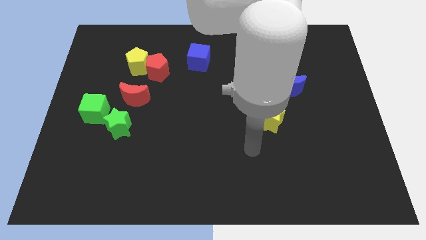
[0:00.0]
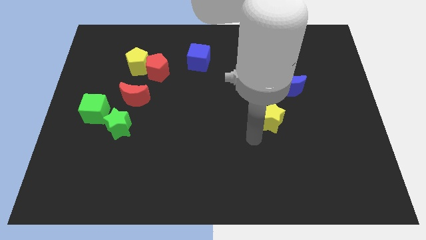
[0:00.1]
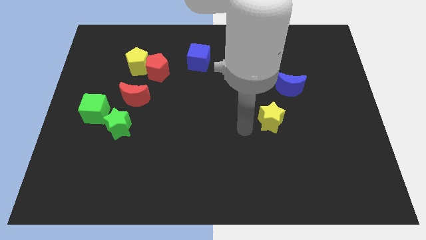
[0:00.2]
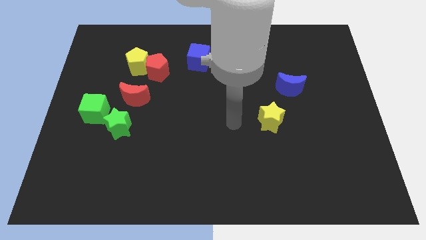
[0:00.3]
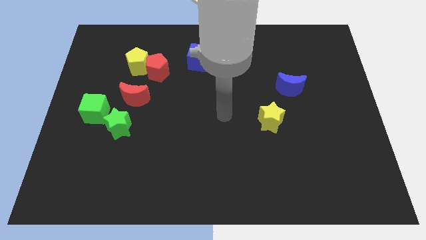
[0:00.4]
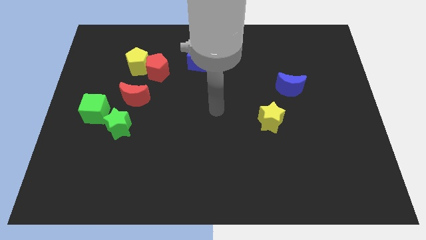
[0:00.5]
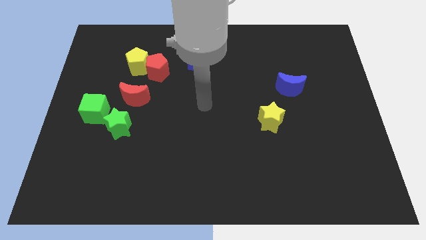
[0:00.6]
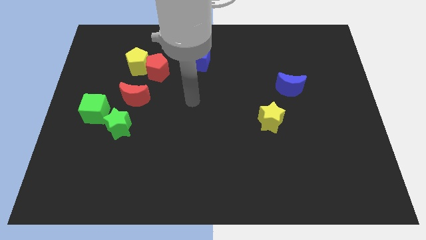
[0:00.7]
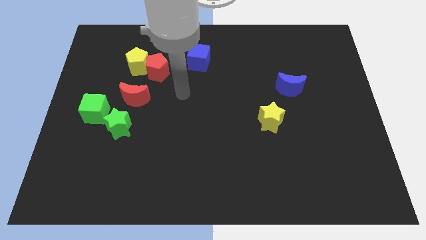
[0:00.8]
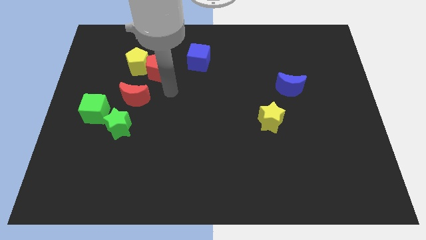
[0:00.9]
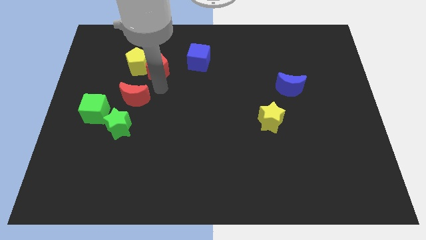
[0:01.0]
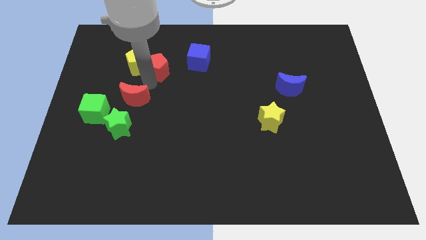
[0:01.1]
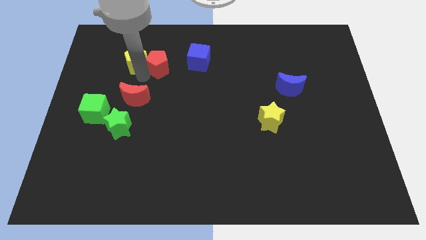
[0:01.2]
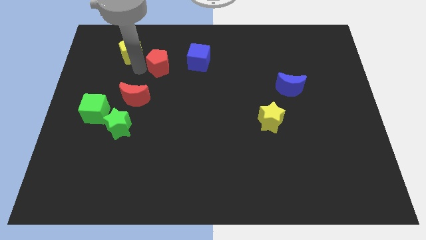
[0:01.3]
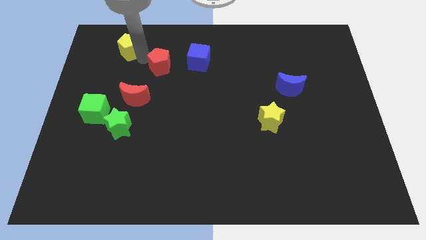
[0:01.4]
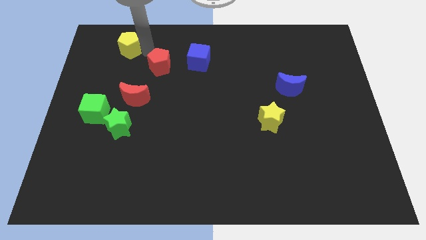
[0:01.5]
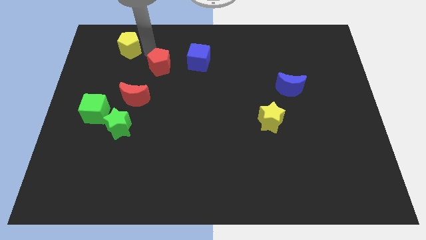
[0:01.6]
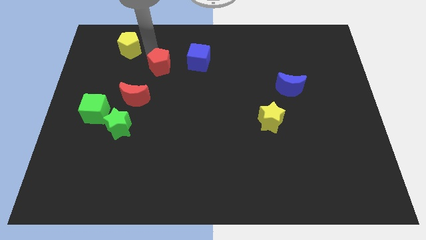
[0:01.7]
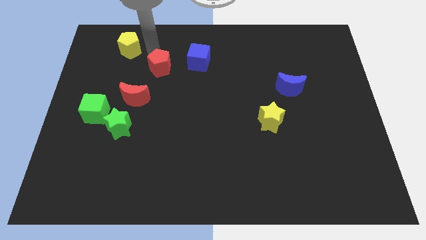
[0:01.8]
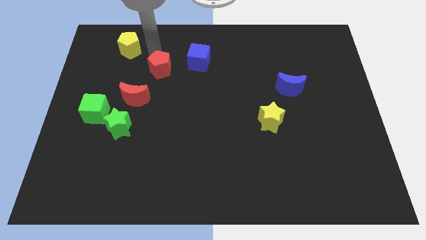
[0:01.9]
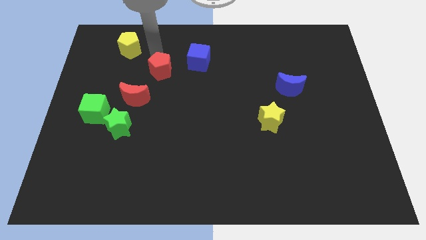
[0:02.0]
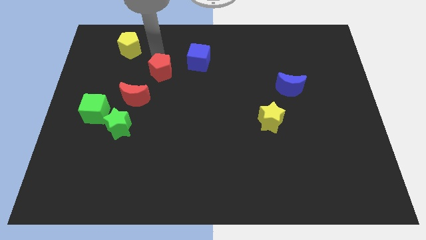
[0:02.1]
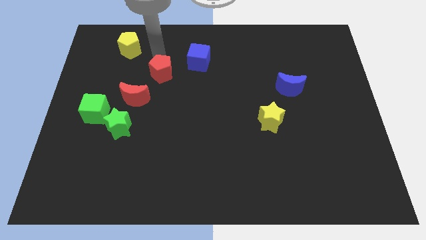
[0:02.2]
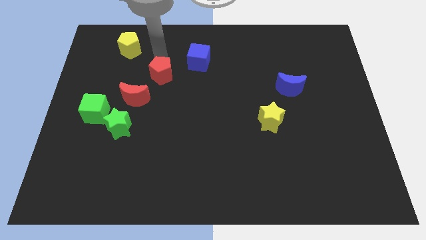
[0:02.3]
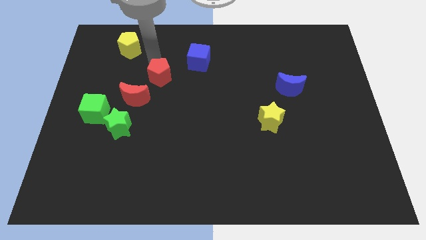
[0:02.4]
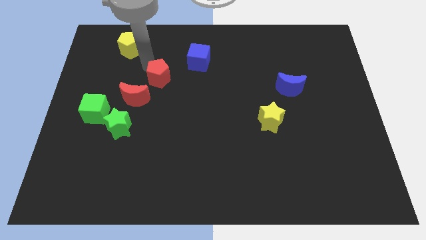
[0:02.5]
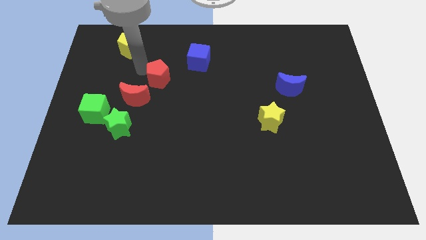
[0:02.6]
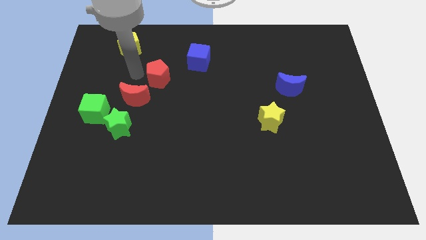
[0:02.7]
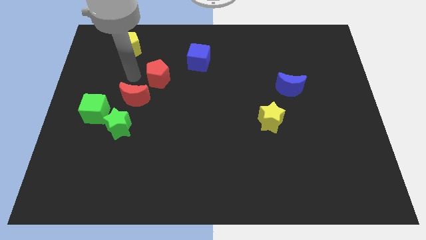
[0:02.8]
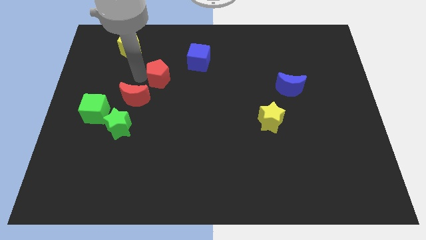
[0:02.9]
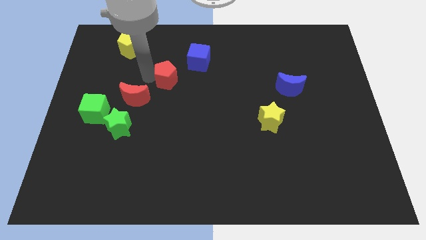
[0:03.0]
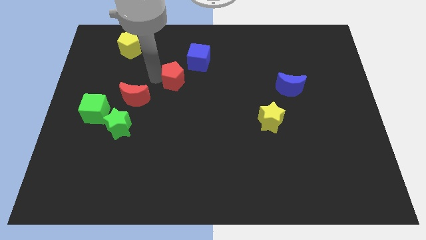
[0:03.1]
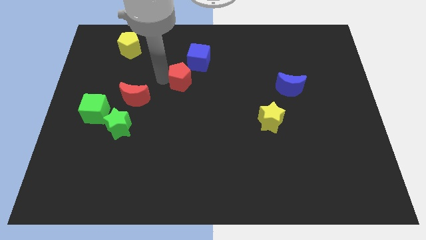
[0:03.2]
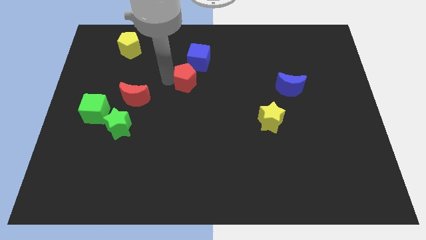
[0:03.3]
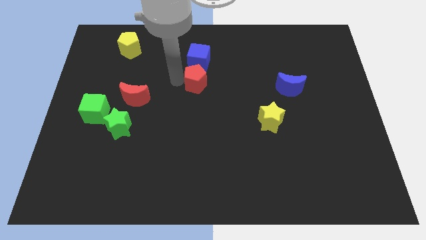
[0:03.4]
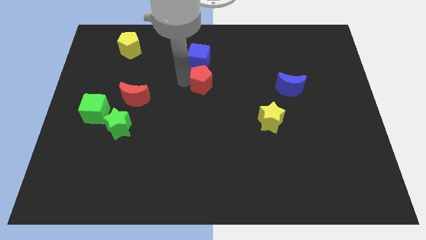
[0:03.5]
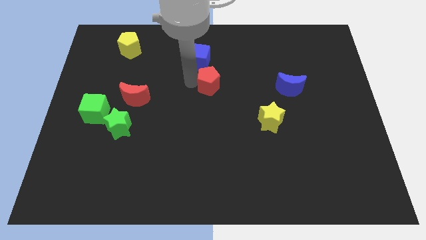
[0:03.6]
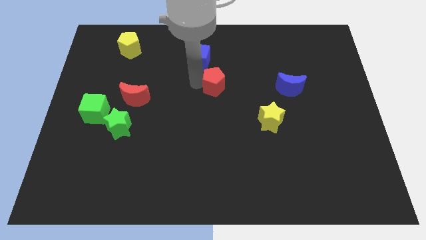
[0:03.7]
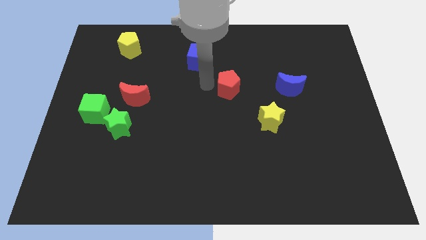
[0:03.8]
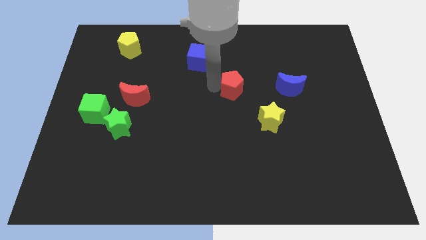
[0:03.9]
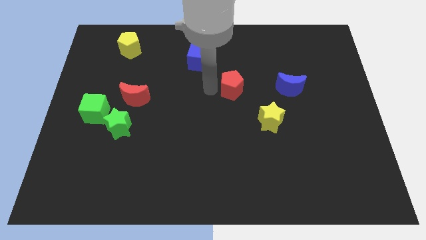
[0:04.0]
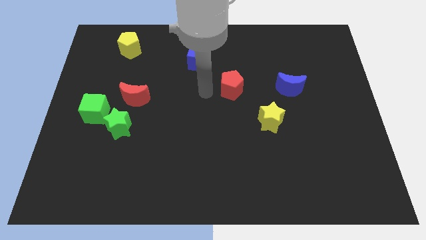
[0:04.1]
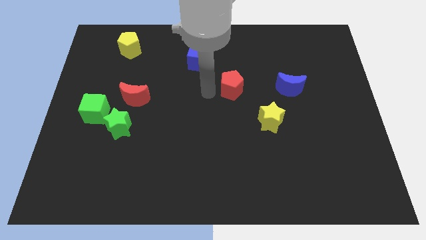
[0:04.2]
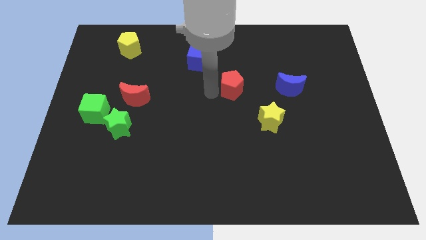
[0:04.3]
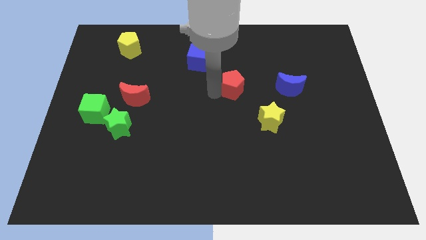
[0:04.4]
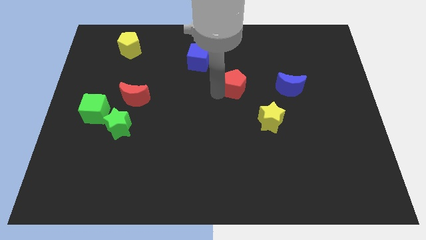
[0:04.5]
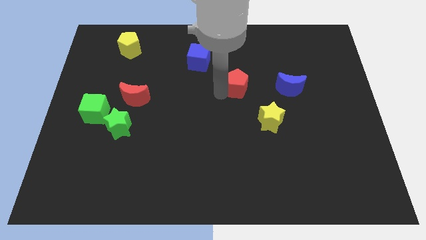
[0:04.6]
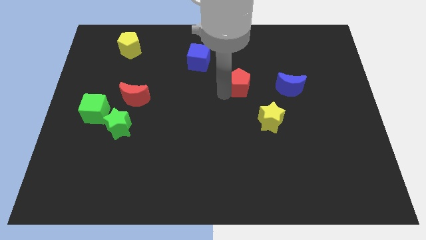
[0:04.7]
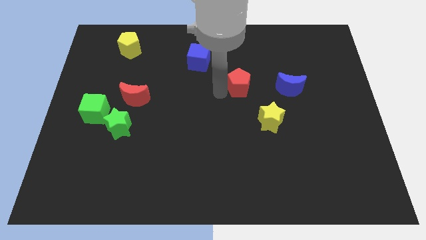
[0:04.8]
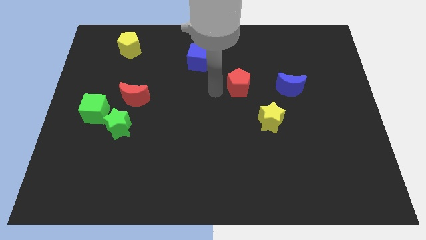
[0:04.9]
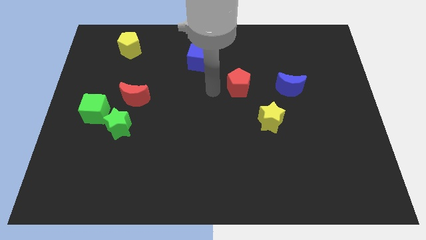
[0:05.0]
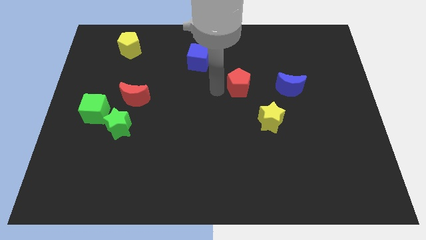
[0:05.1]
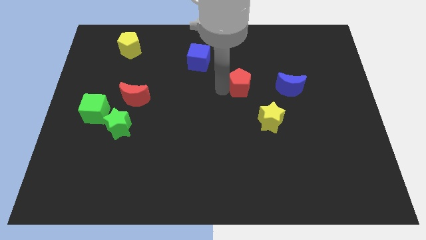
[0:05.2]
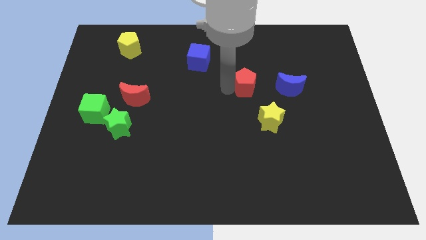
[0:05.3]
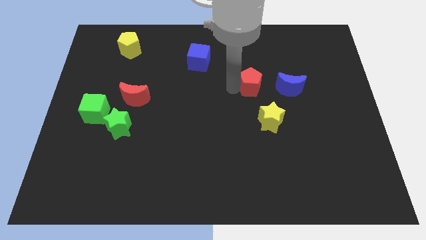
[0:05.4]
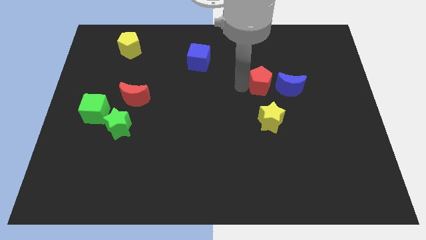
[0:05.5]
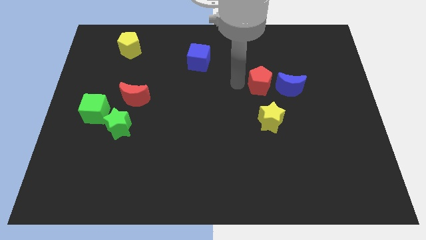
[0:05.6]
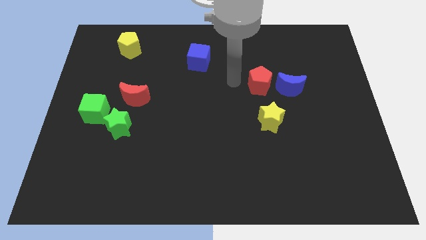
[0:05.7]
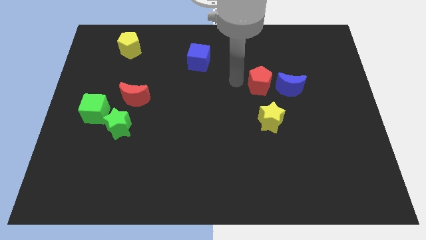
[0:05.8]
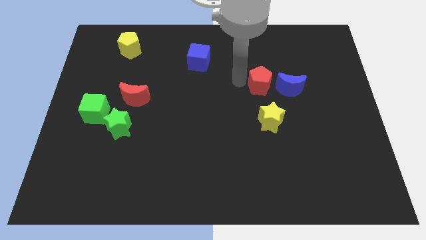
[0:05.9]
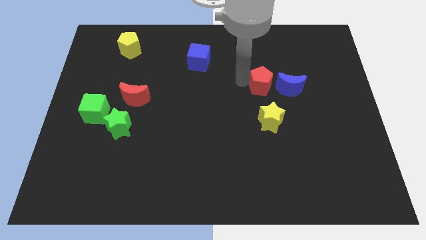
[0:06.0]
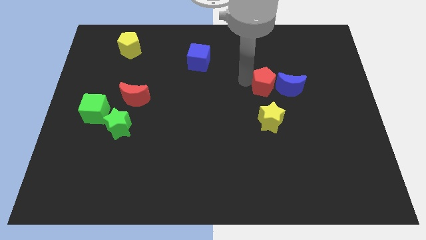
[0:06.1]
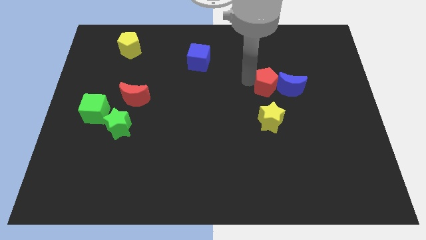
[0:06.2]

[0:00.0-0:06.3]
slide the red pentagon next to the blue moon
